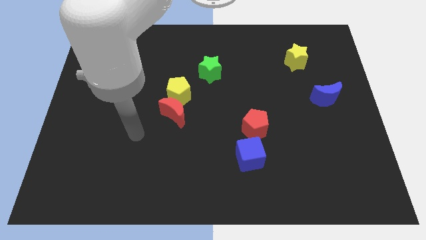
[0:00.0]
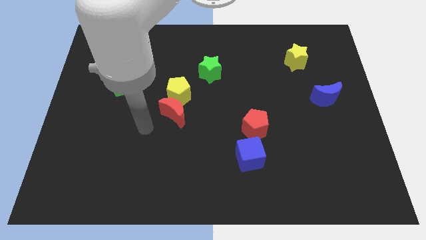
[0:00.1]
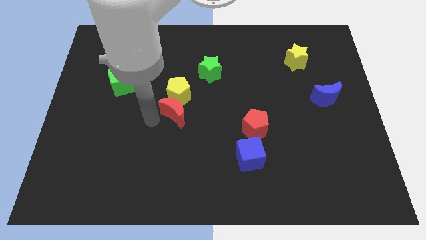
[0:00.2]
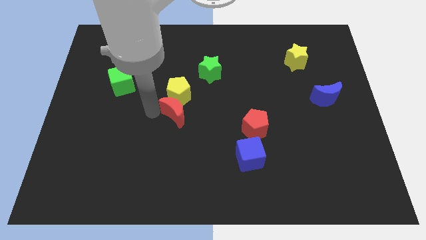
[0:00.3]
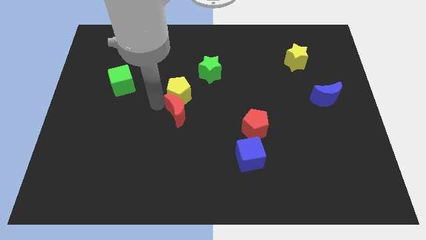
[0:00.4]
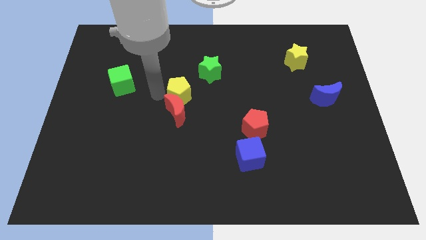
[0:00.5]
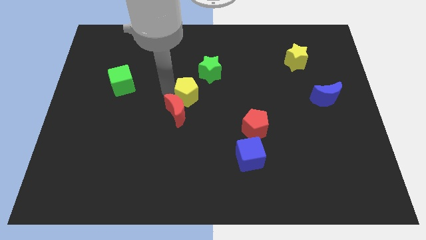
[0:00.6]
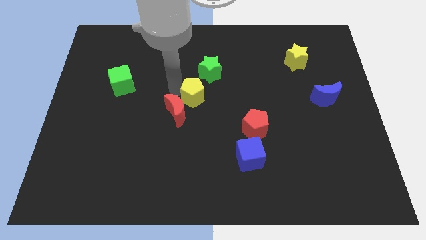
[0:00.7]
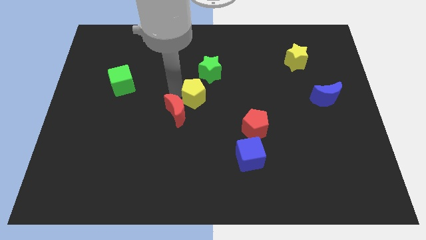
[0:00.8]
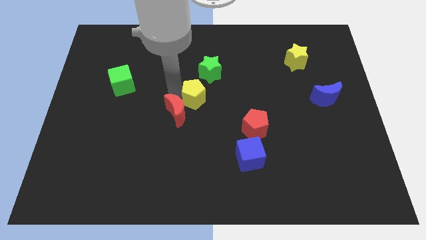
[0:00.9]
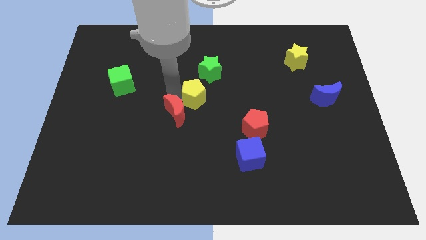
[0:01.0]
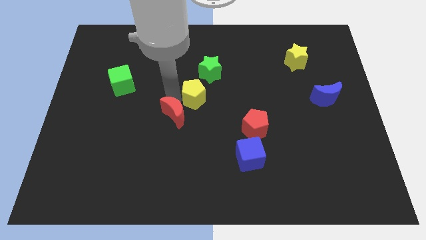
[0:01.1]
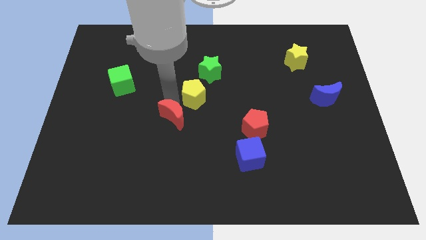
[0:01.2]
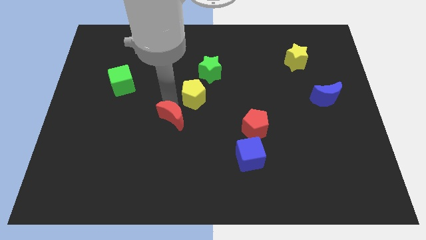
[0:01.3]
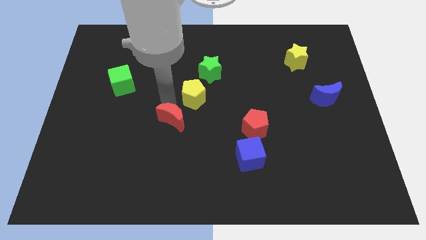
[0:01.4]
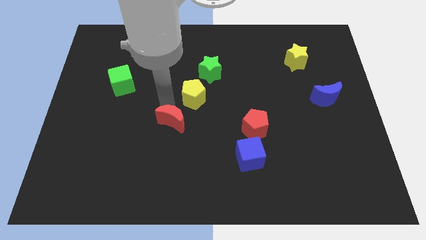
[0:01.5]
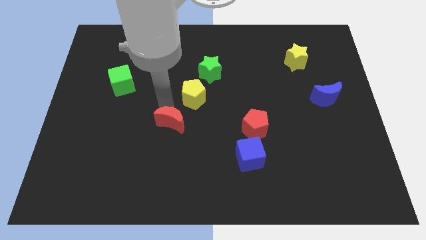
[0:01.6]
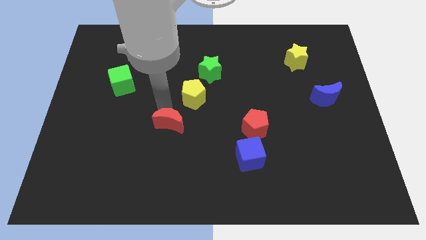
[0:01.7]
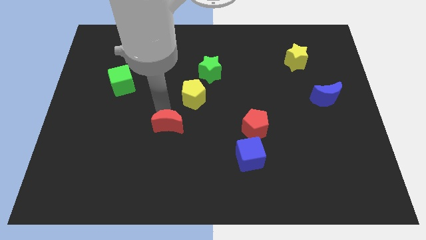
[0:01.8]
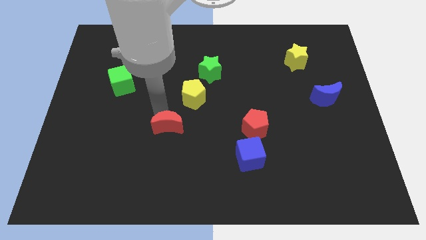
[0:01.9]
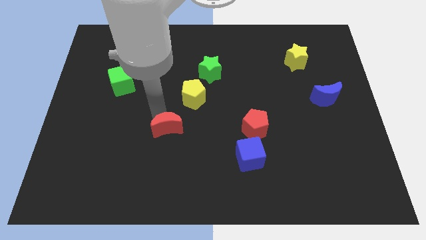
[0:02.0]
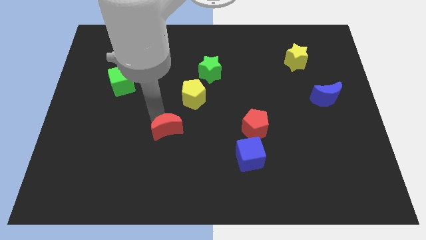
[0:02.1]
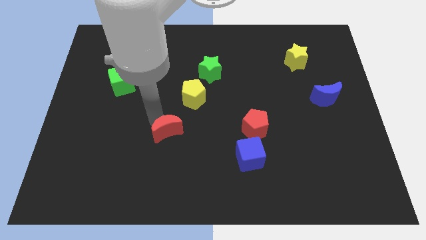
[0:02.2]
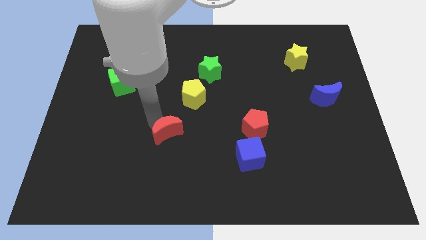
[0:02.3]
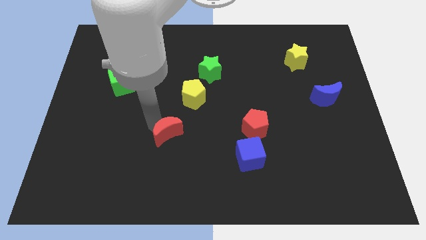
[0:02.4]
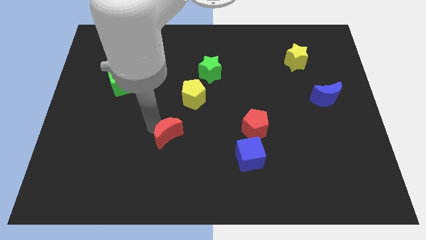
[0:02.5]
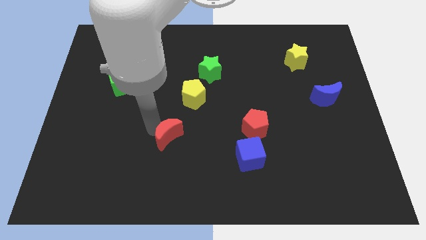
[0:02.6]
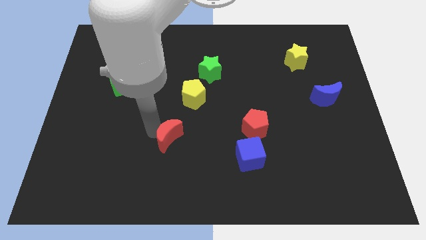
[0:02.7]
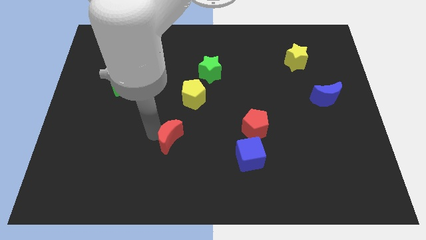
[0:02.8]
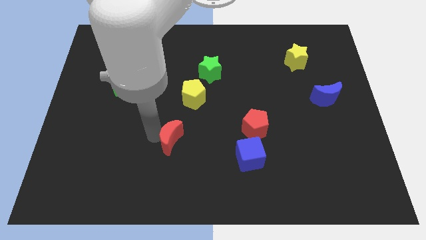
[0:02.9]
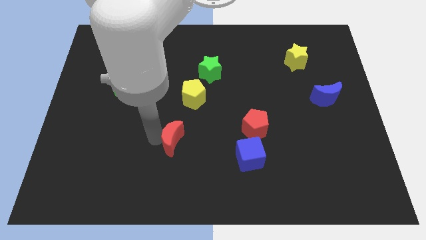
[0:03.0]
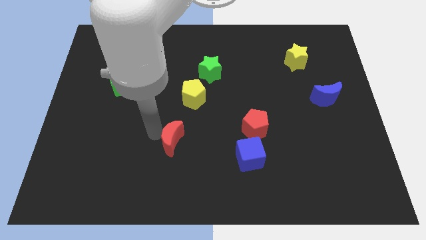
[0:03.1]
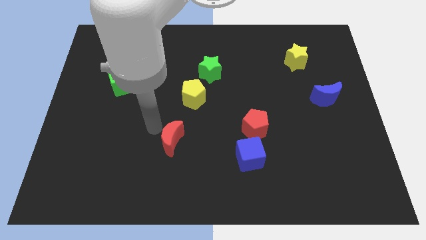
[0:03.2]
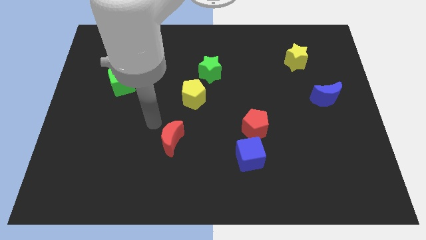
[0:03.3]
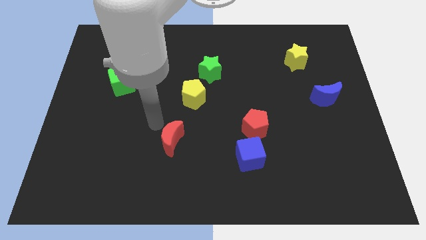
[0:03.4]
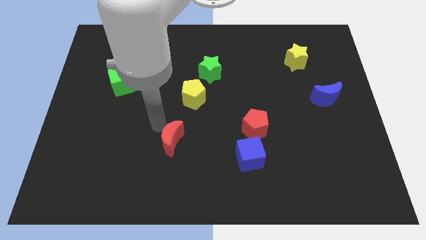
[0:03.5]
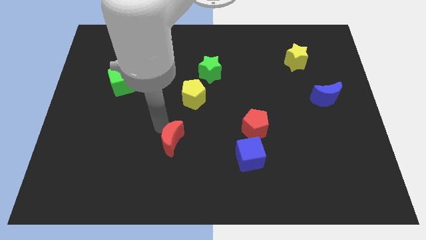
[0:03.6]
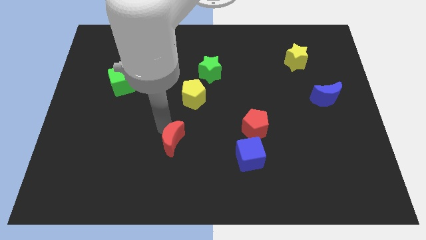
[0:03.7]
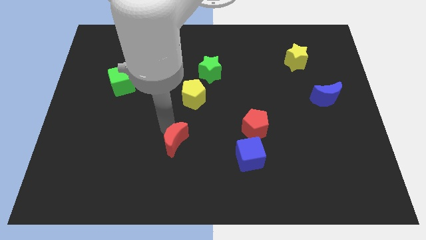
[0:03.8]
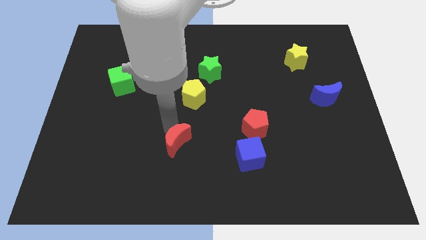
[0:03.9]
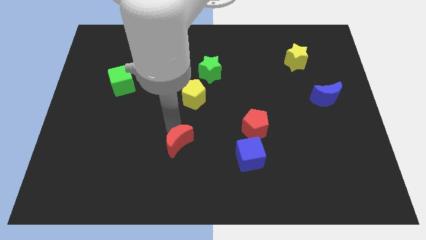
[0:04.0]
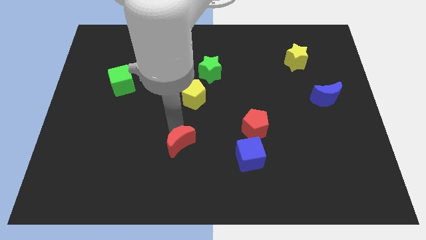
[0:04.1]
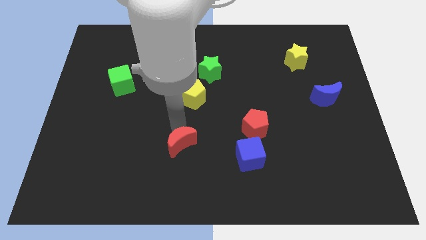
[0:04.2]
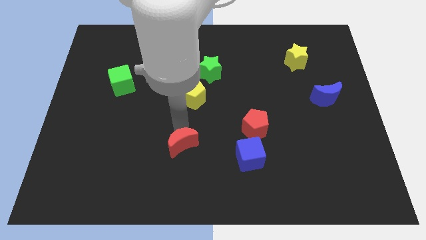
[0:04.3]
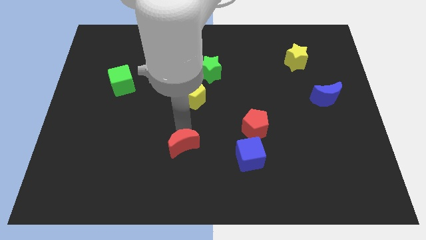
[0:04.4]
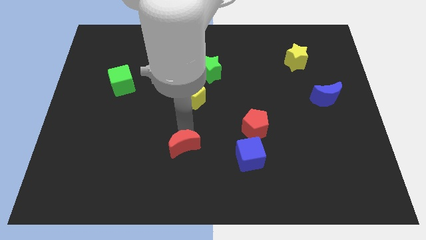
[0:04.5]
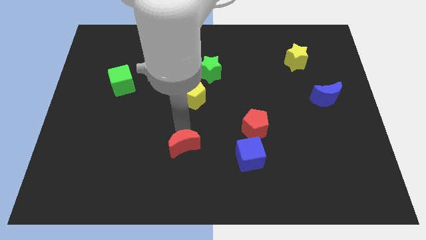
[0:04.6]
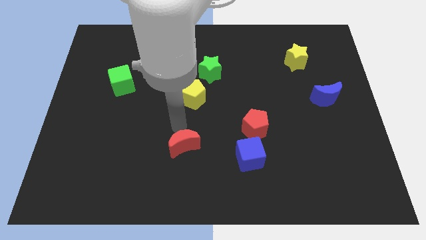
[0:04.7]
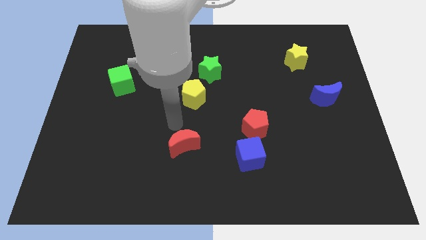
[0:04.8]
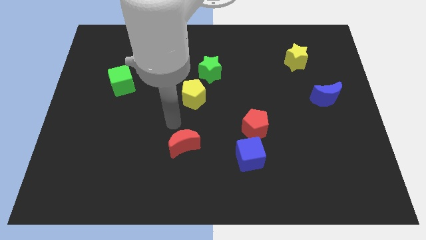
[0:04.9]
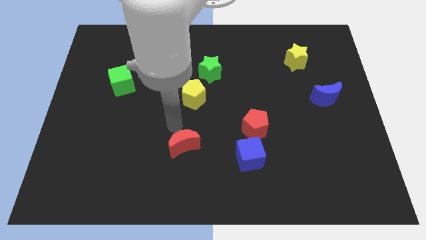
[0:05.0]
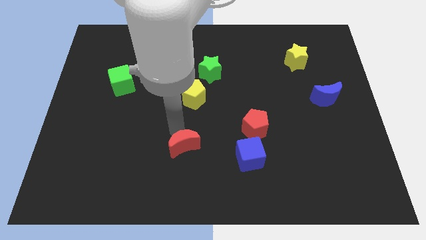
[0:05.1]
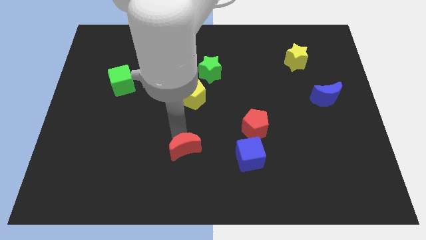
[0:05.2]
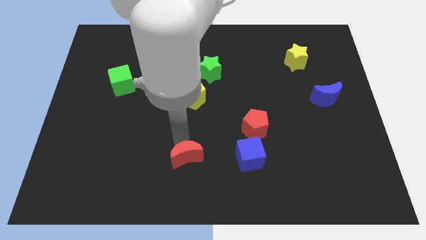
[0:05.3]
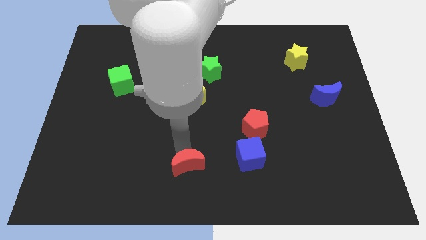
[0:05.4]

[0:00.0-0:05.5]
push the red moon to the bottom side

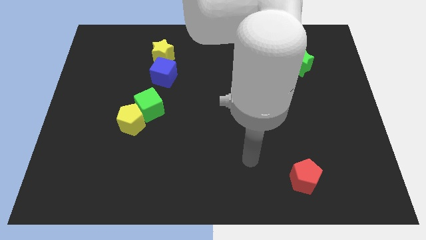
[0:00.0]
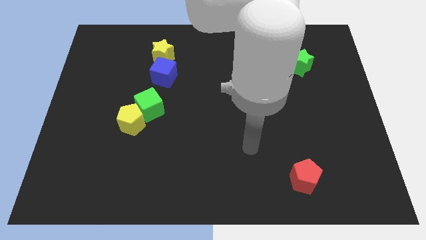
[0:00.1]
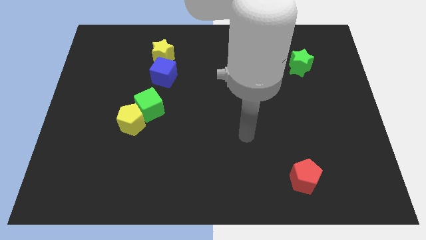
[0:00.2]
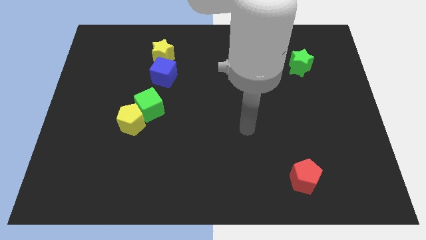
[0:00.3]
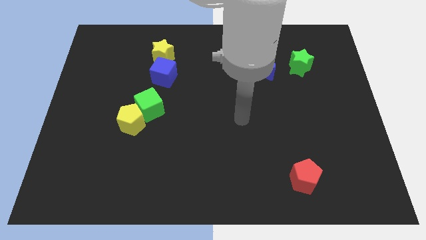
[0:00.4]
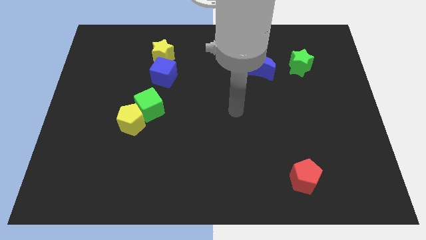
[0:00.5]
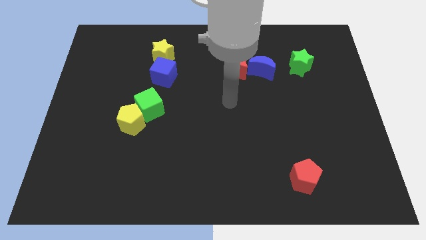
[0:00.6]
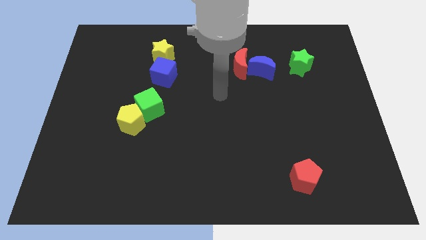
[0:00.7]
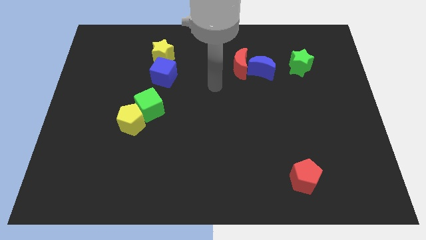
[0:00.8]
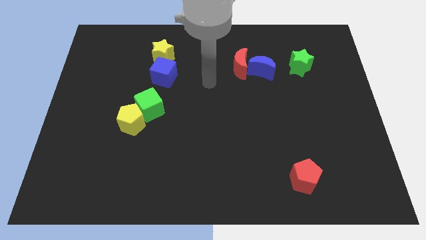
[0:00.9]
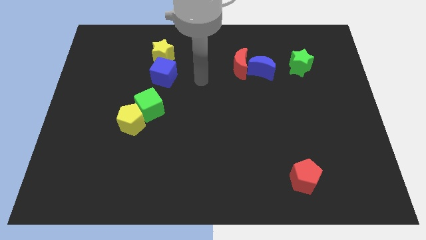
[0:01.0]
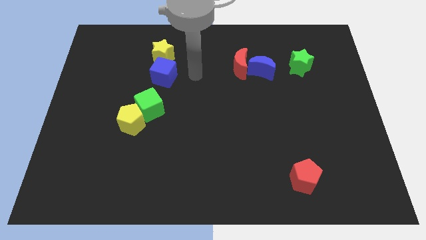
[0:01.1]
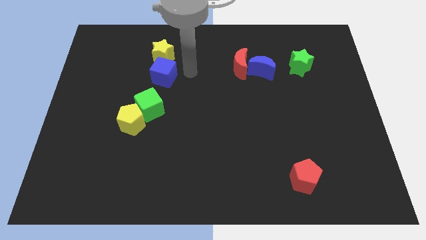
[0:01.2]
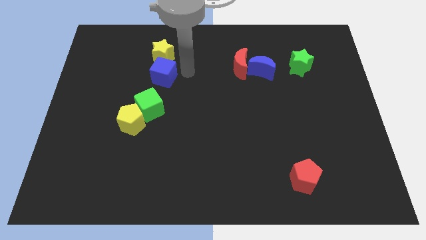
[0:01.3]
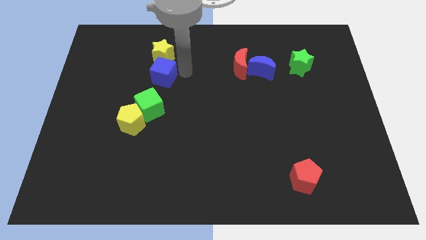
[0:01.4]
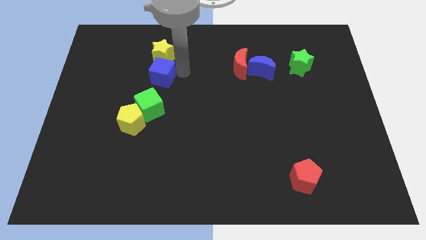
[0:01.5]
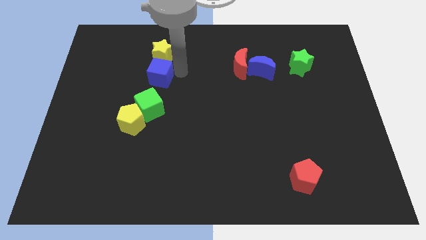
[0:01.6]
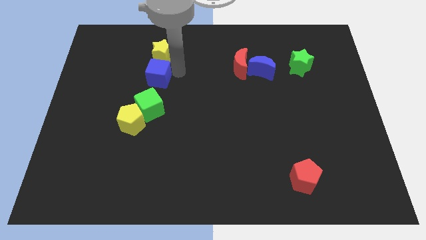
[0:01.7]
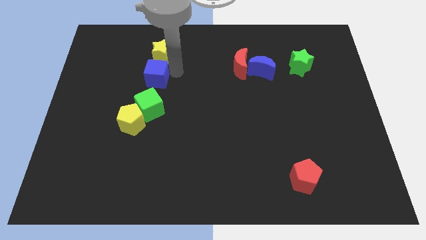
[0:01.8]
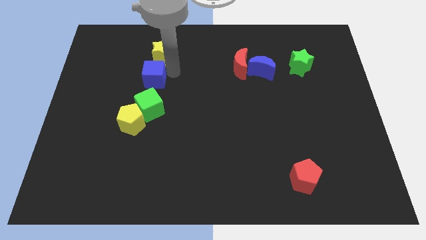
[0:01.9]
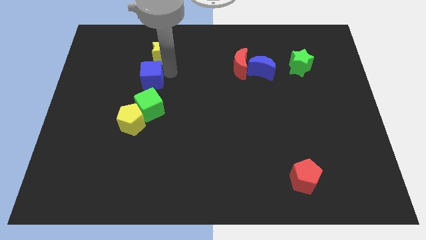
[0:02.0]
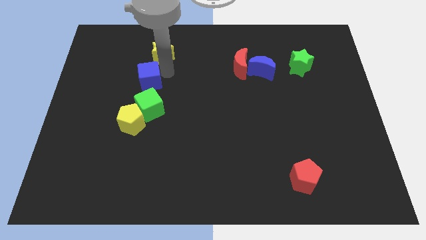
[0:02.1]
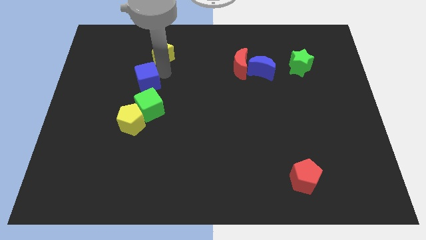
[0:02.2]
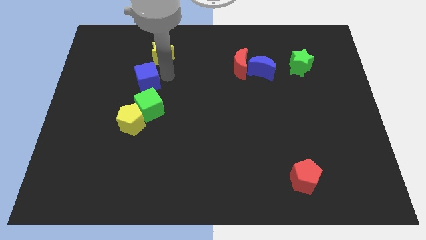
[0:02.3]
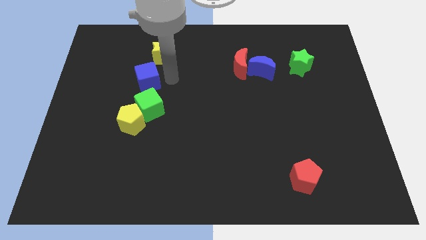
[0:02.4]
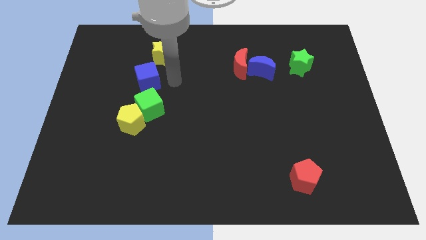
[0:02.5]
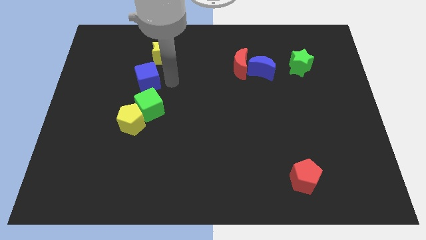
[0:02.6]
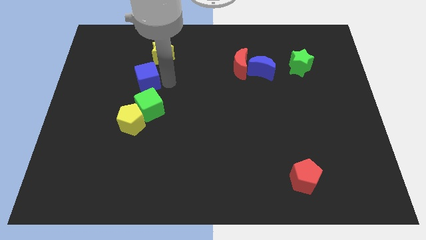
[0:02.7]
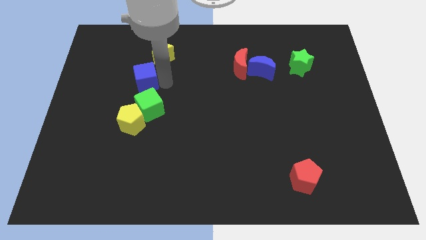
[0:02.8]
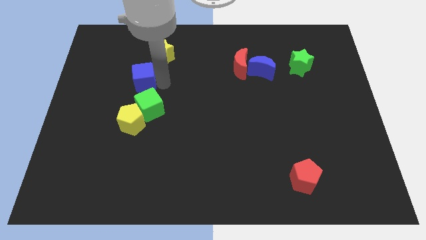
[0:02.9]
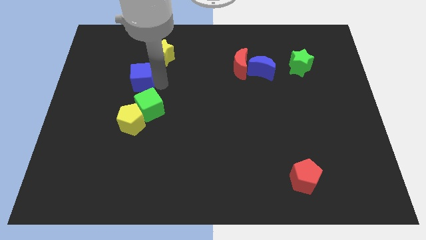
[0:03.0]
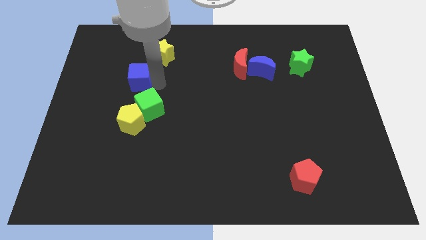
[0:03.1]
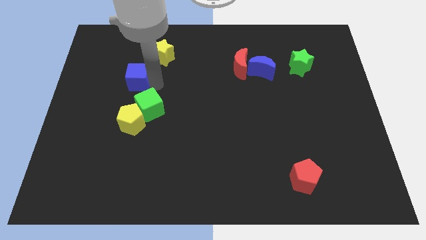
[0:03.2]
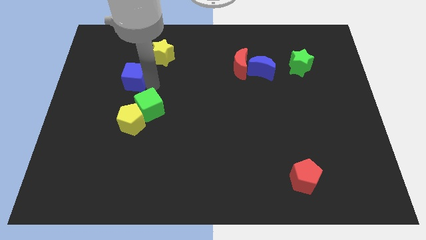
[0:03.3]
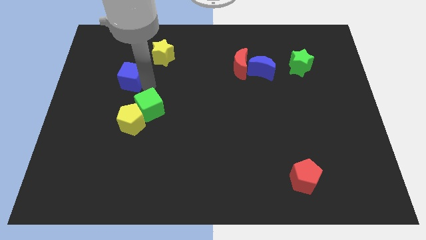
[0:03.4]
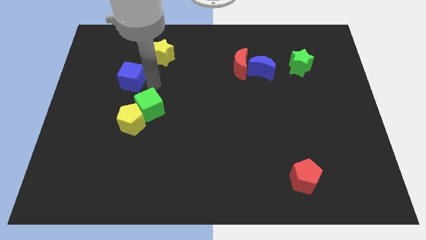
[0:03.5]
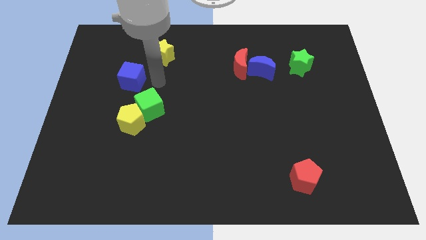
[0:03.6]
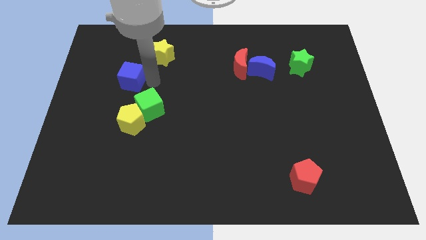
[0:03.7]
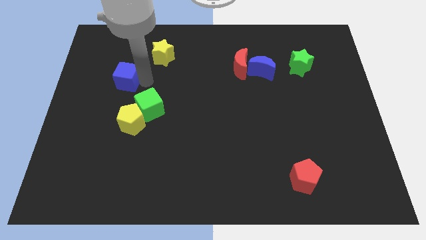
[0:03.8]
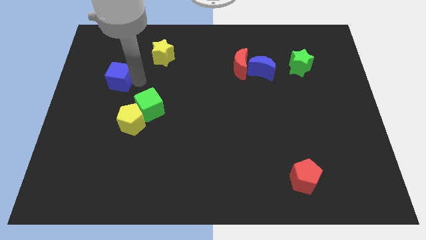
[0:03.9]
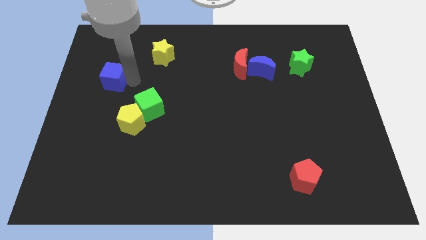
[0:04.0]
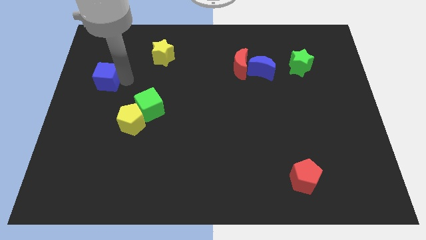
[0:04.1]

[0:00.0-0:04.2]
put the blue cube to the left side
